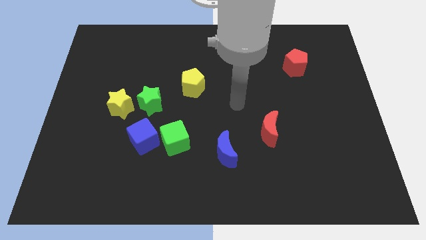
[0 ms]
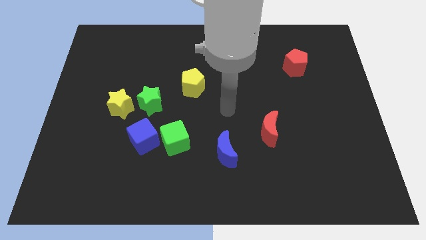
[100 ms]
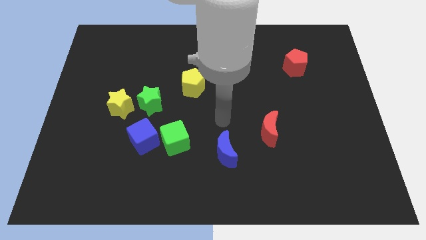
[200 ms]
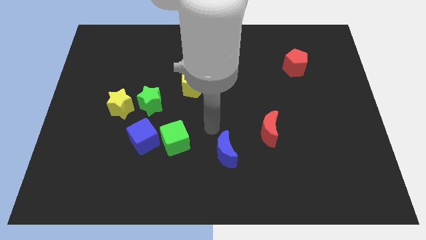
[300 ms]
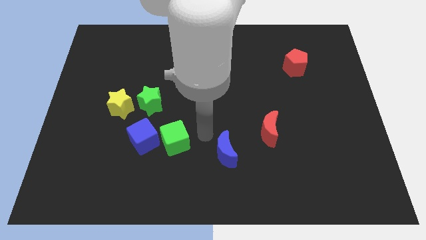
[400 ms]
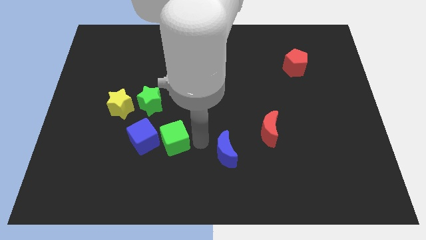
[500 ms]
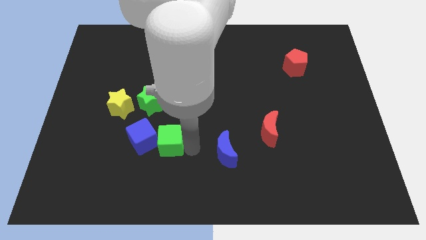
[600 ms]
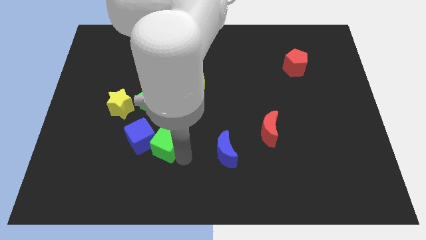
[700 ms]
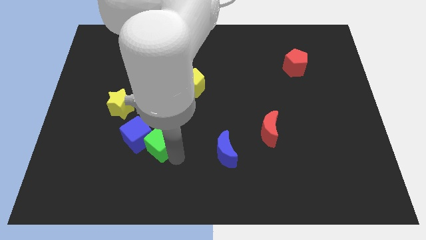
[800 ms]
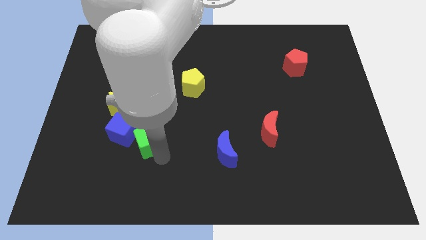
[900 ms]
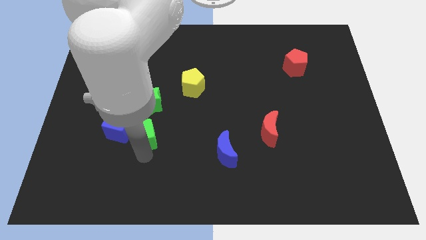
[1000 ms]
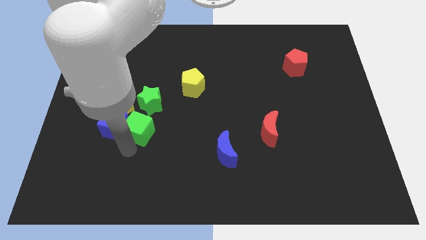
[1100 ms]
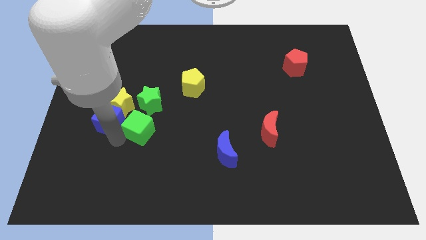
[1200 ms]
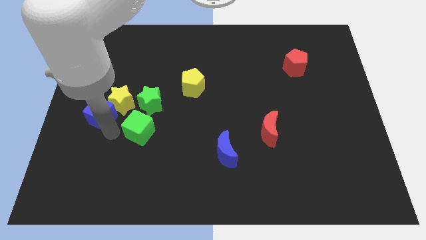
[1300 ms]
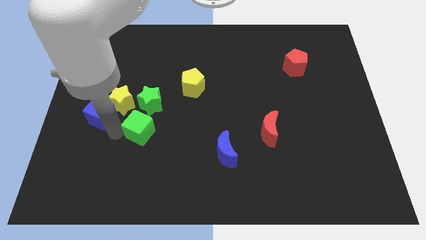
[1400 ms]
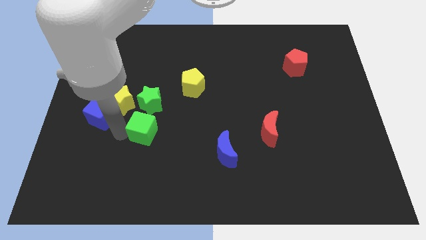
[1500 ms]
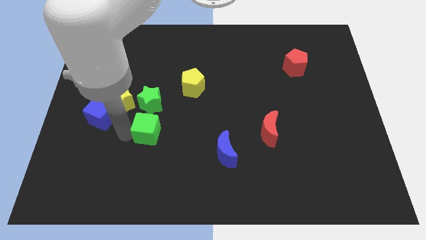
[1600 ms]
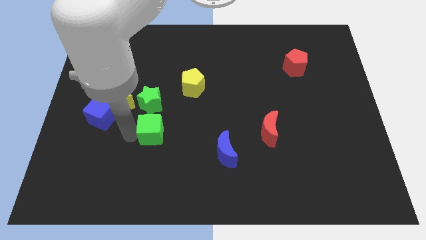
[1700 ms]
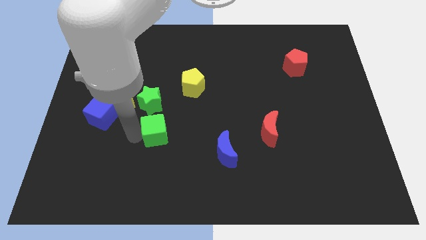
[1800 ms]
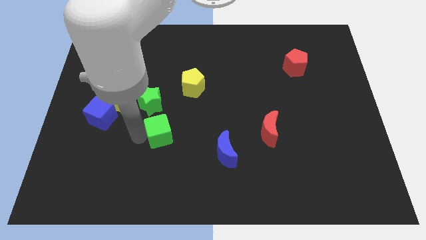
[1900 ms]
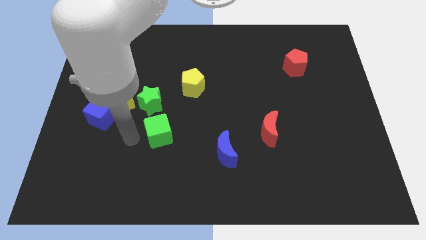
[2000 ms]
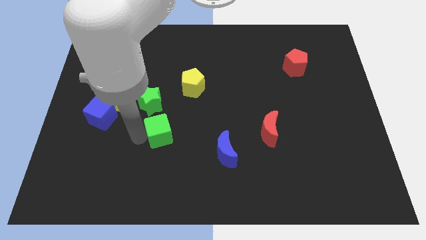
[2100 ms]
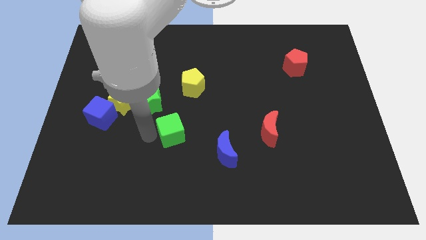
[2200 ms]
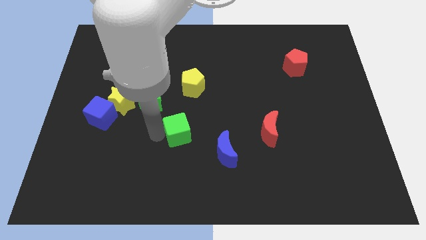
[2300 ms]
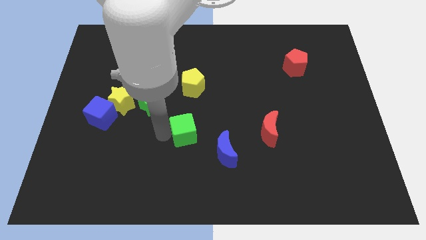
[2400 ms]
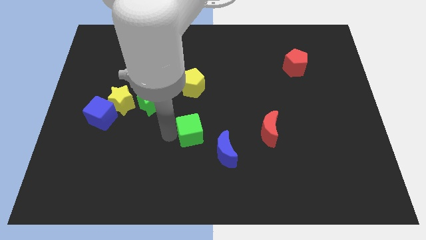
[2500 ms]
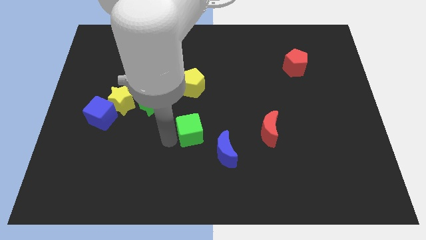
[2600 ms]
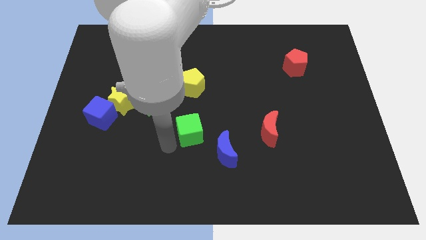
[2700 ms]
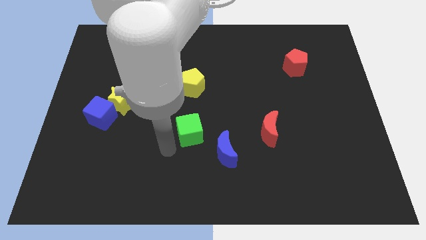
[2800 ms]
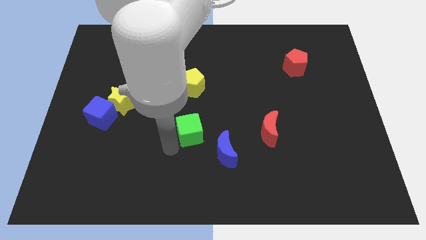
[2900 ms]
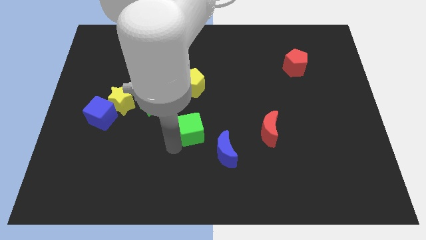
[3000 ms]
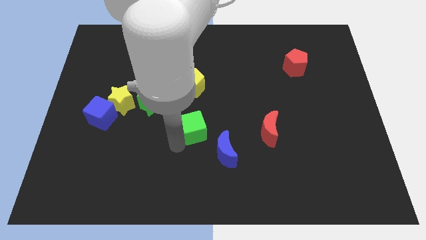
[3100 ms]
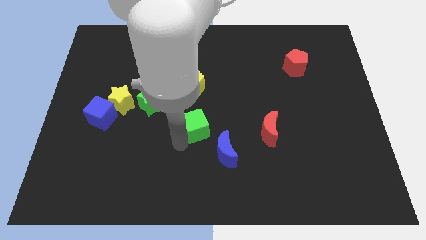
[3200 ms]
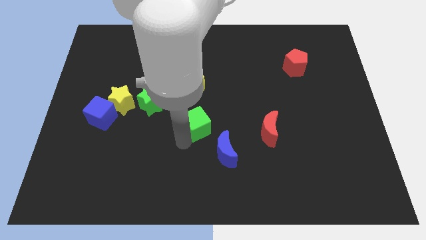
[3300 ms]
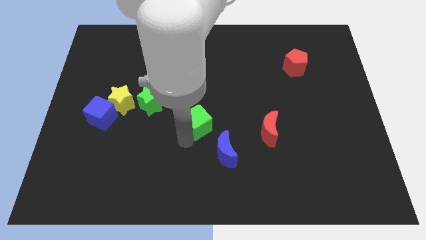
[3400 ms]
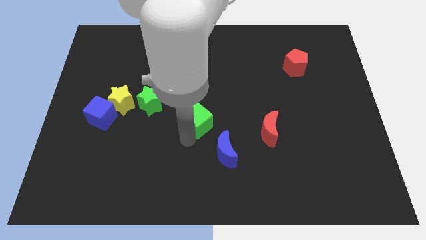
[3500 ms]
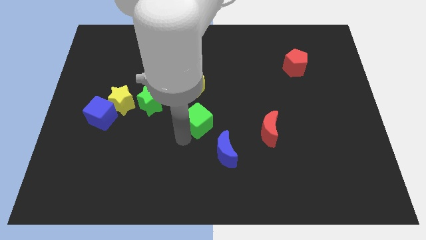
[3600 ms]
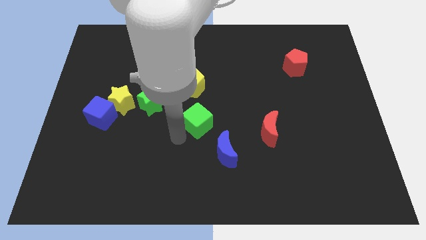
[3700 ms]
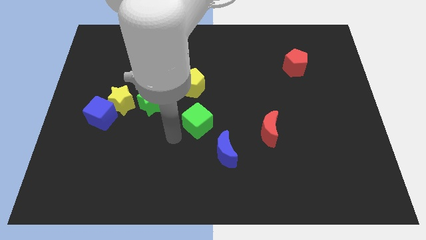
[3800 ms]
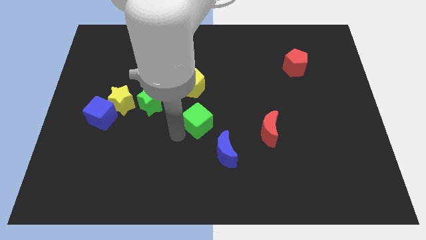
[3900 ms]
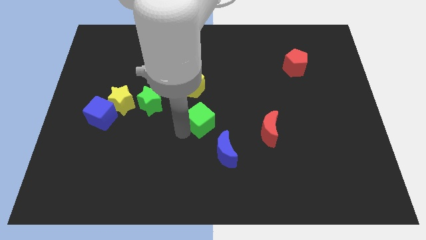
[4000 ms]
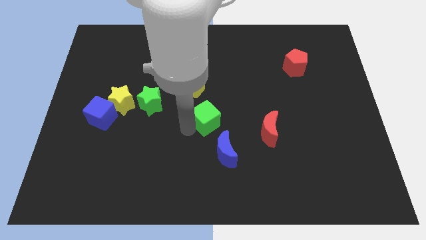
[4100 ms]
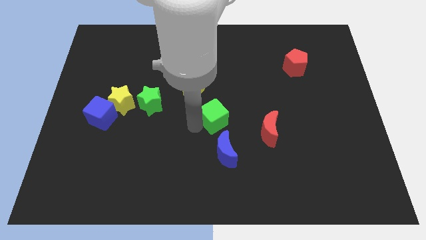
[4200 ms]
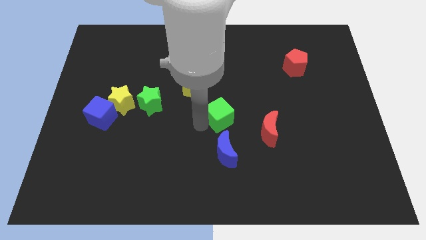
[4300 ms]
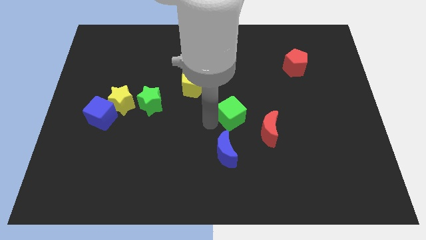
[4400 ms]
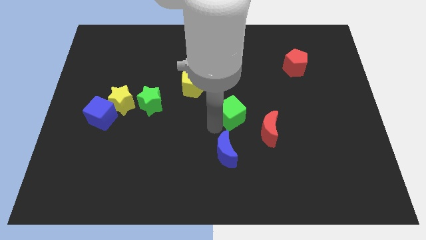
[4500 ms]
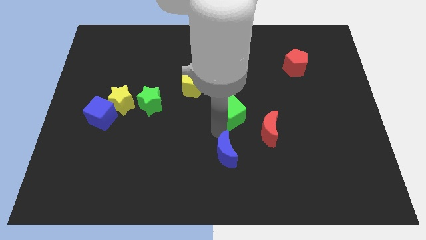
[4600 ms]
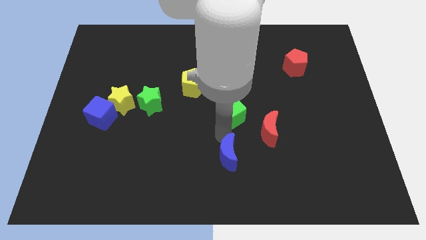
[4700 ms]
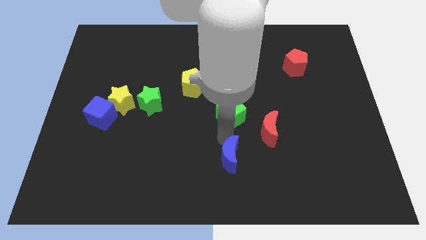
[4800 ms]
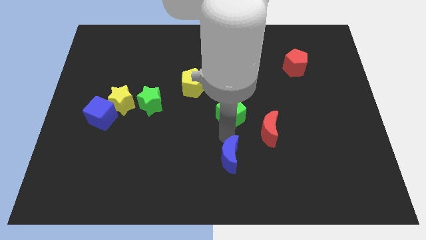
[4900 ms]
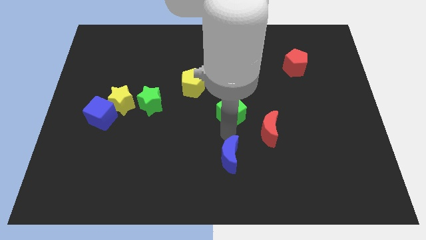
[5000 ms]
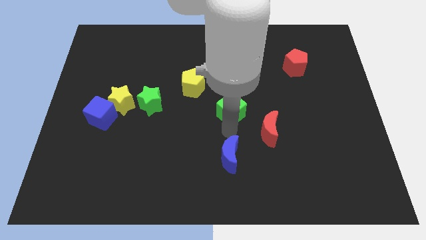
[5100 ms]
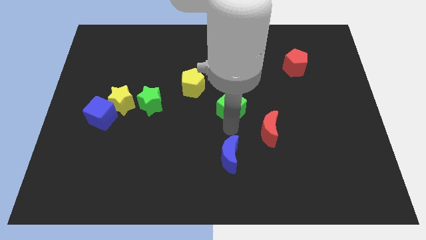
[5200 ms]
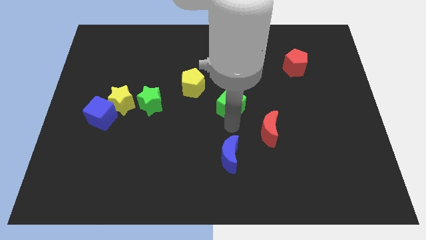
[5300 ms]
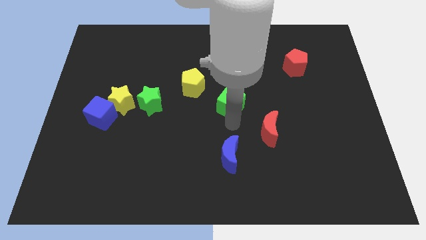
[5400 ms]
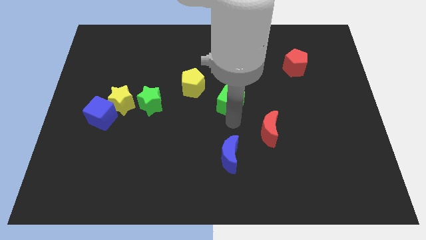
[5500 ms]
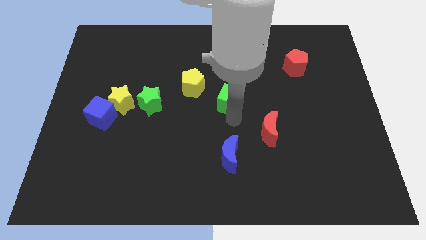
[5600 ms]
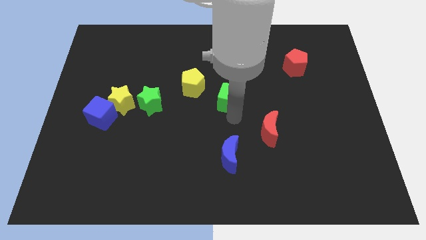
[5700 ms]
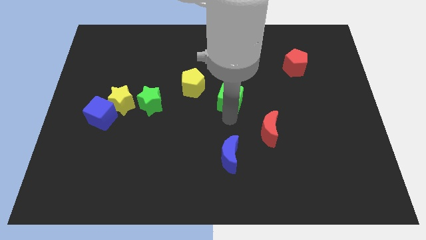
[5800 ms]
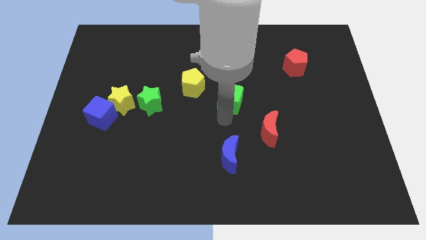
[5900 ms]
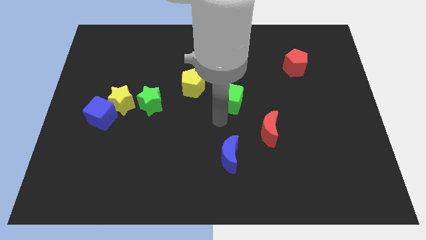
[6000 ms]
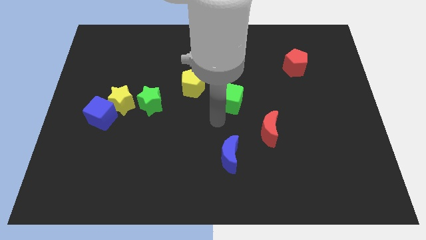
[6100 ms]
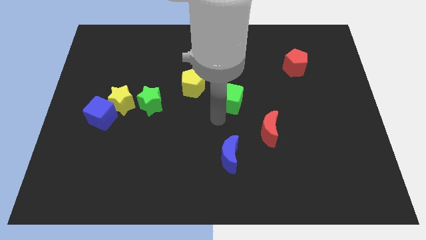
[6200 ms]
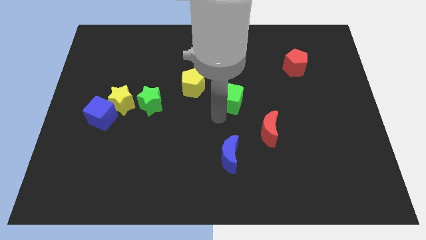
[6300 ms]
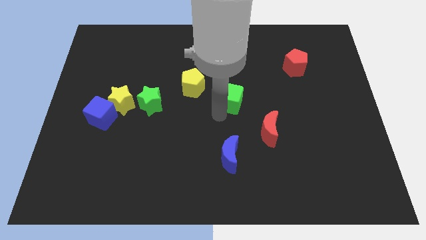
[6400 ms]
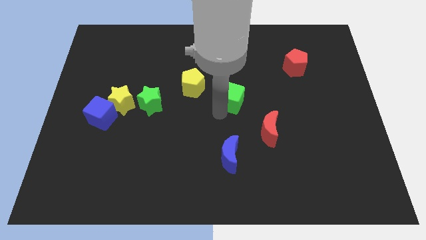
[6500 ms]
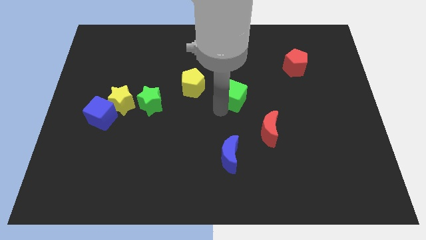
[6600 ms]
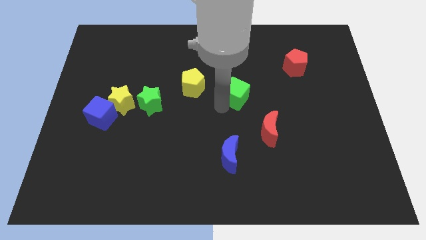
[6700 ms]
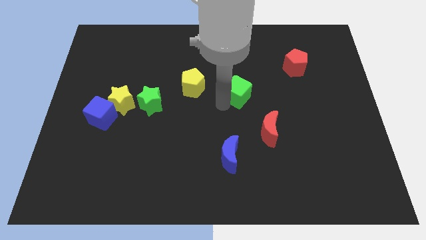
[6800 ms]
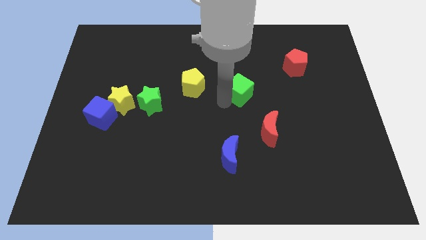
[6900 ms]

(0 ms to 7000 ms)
move the green cube upwards and to the right diagonally

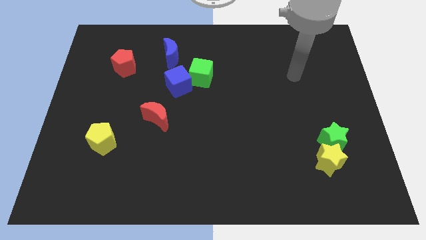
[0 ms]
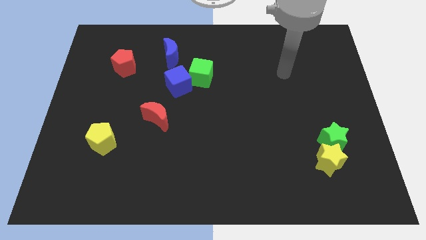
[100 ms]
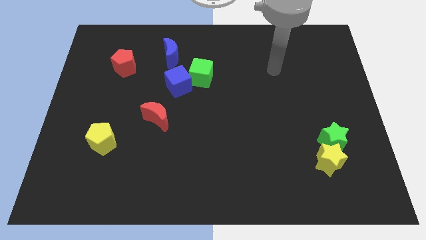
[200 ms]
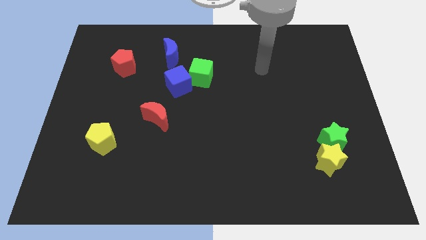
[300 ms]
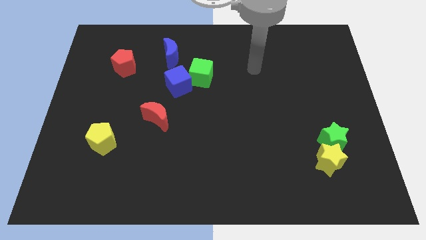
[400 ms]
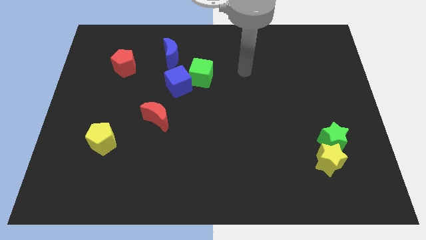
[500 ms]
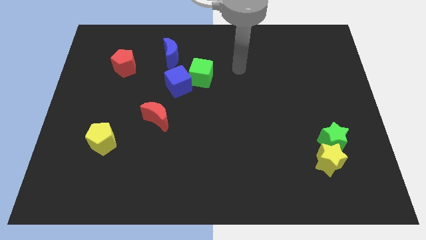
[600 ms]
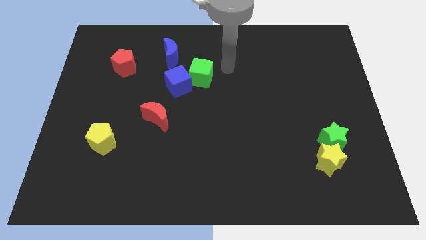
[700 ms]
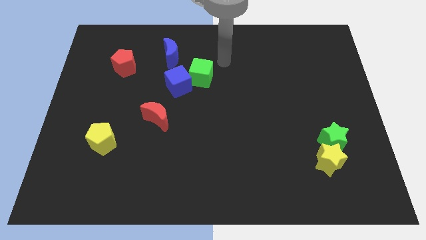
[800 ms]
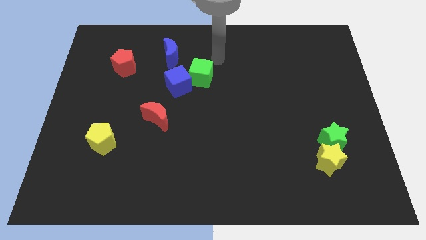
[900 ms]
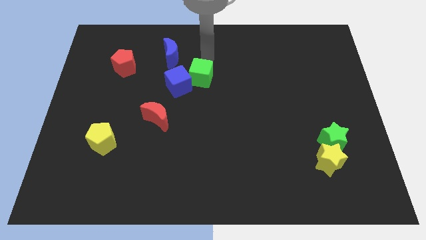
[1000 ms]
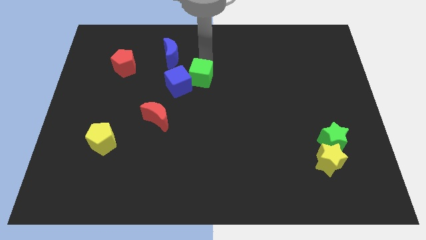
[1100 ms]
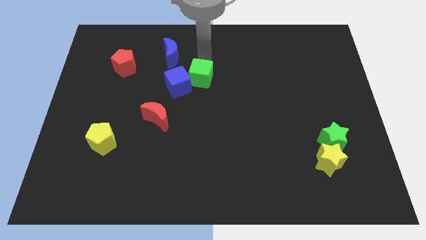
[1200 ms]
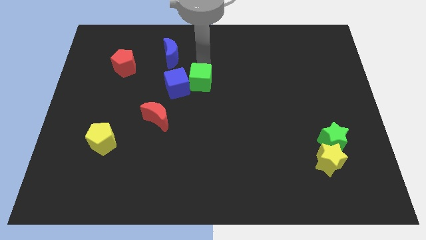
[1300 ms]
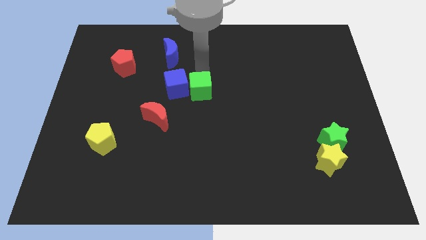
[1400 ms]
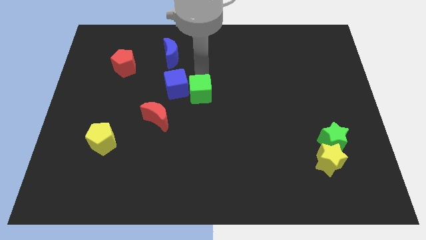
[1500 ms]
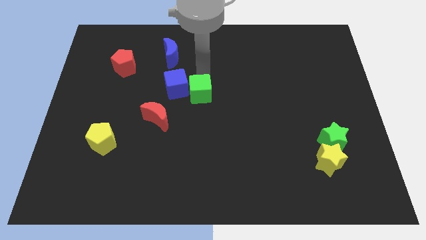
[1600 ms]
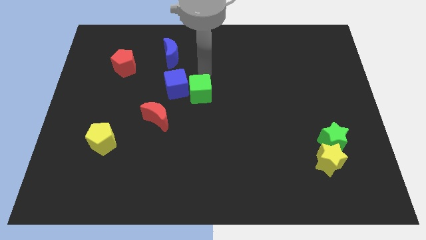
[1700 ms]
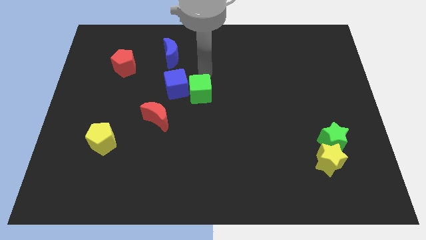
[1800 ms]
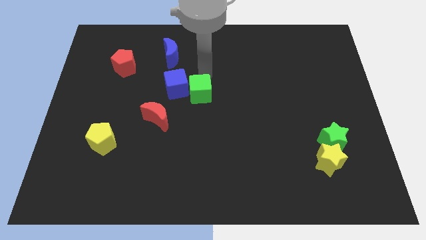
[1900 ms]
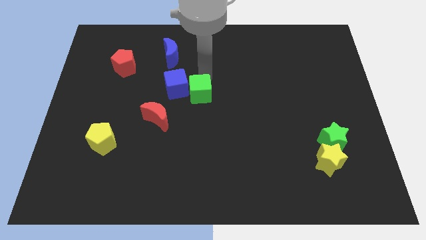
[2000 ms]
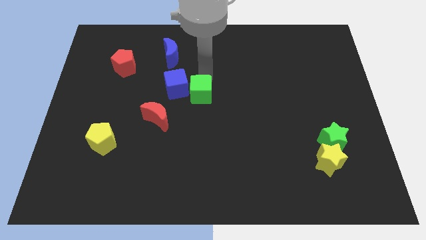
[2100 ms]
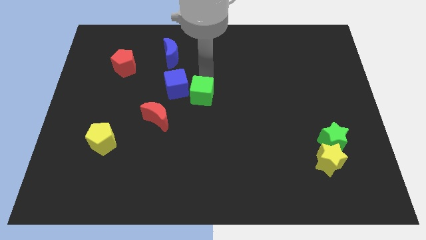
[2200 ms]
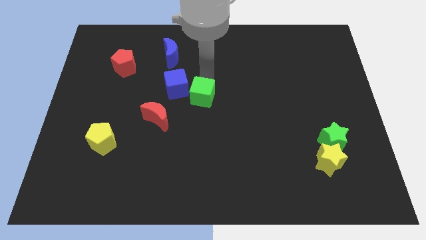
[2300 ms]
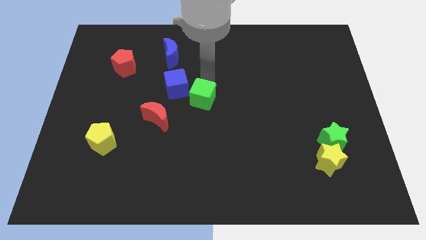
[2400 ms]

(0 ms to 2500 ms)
slide the green cube a little downwards
